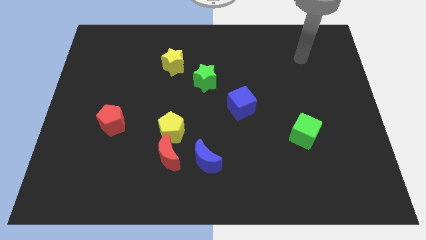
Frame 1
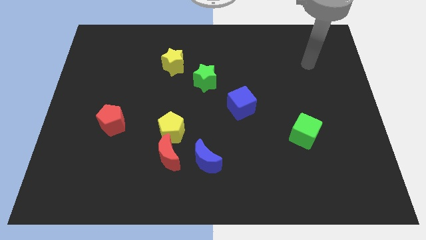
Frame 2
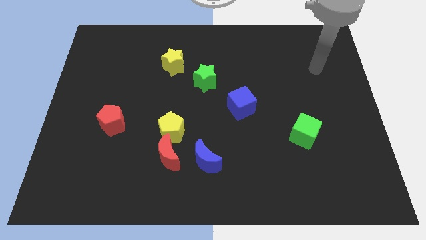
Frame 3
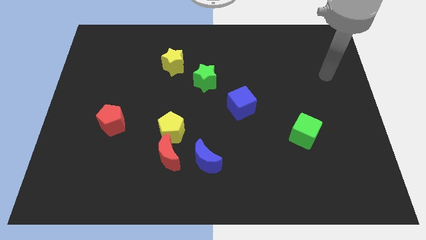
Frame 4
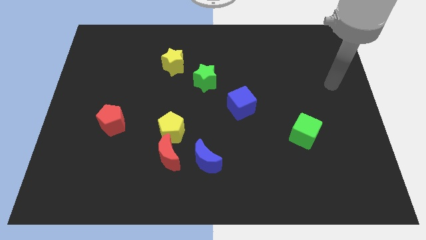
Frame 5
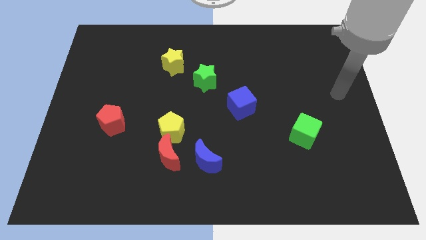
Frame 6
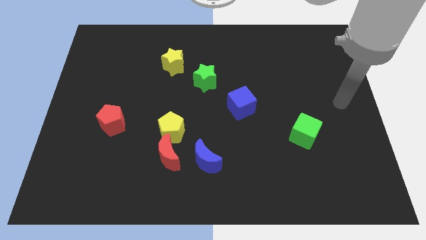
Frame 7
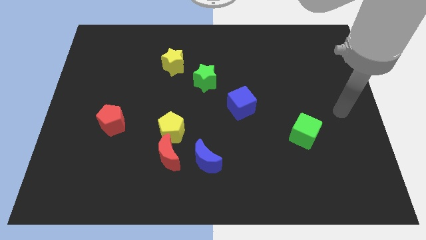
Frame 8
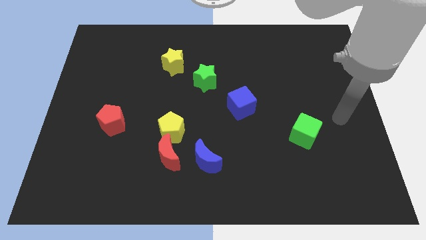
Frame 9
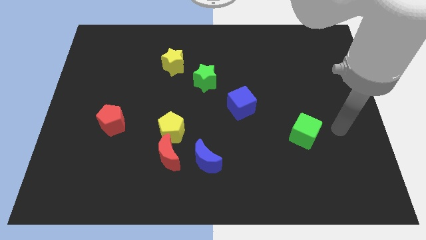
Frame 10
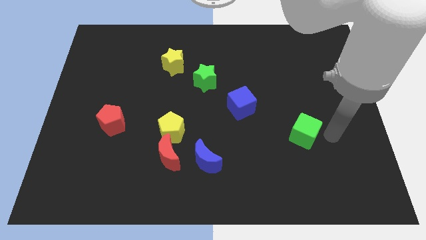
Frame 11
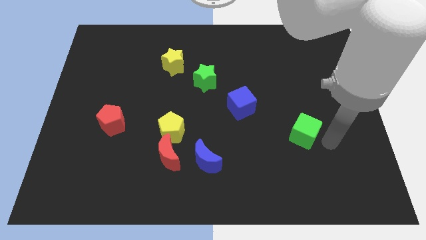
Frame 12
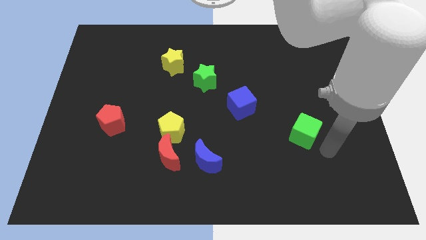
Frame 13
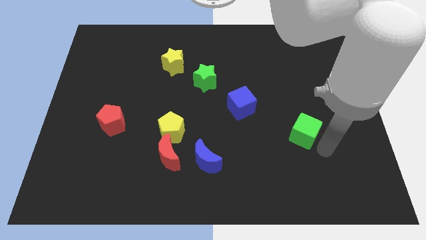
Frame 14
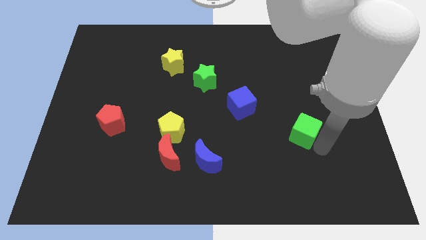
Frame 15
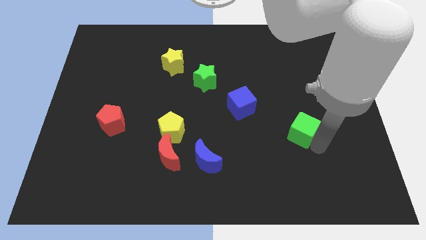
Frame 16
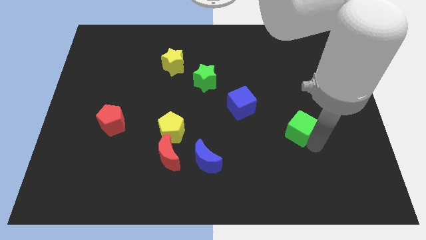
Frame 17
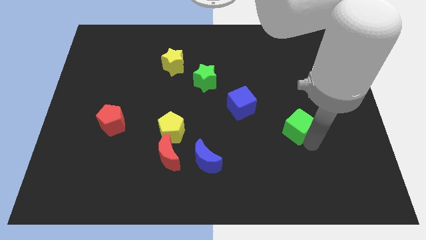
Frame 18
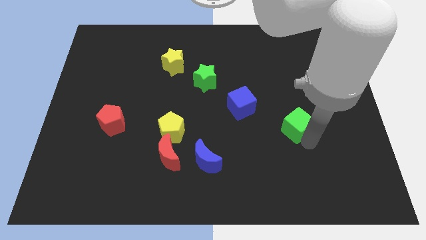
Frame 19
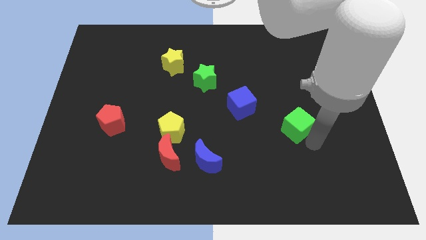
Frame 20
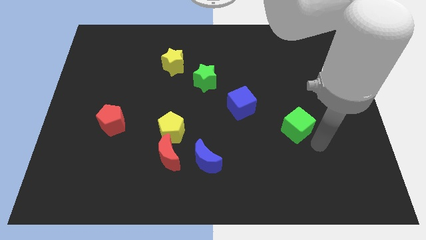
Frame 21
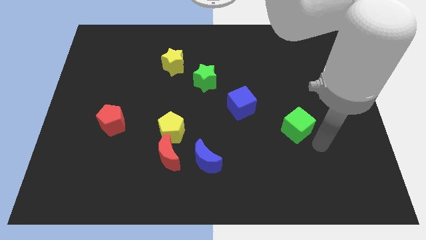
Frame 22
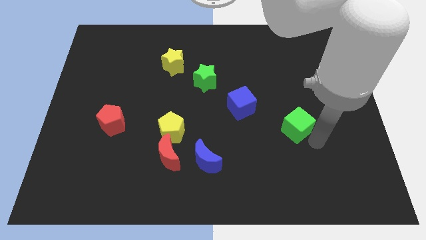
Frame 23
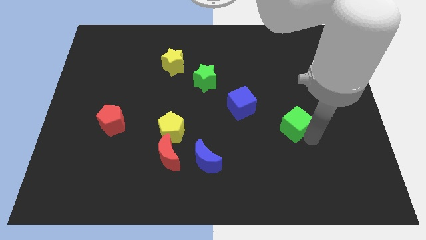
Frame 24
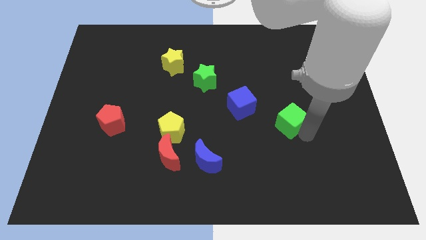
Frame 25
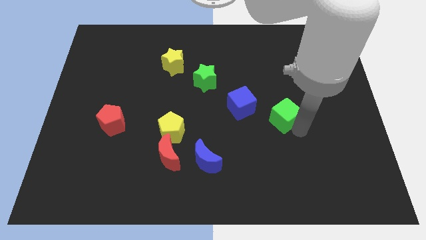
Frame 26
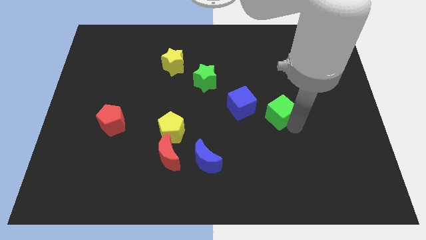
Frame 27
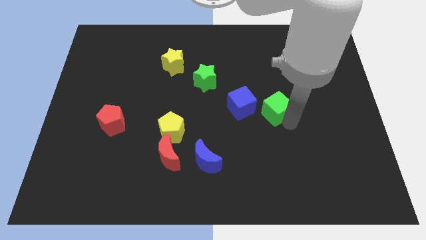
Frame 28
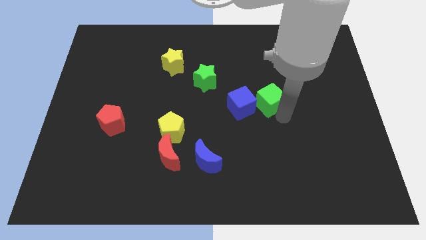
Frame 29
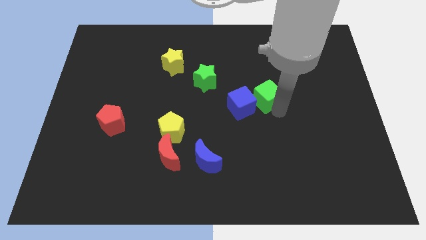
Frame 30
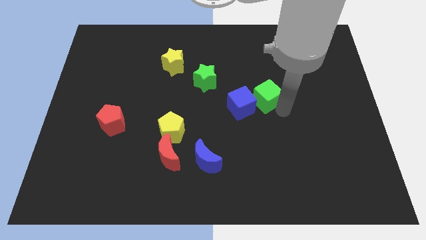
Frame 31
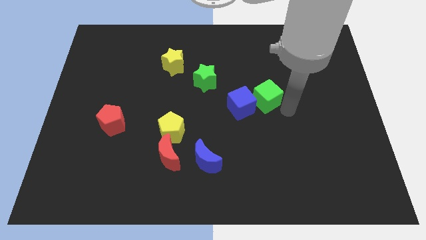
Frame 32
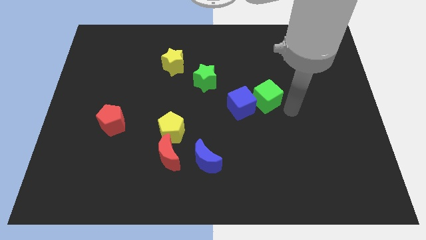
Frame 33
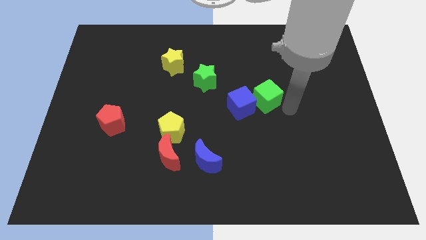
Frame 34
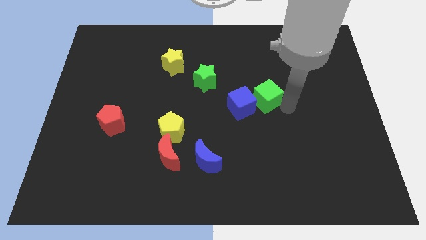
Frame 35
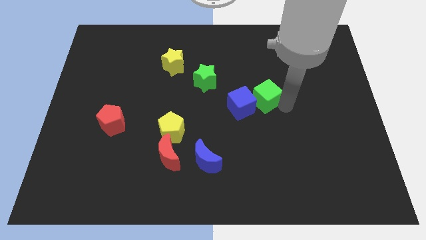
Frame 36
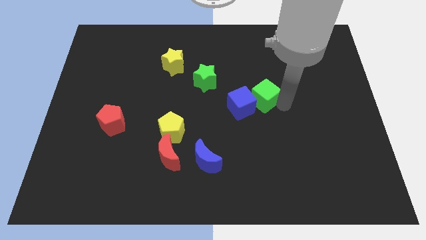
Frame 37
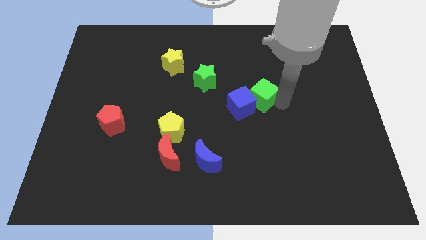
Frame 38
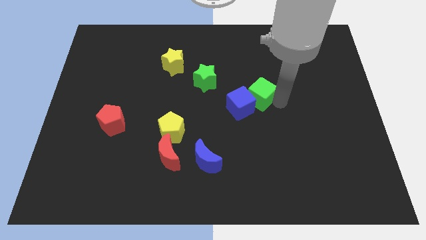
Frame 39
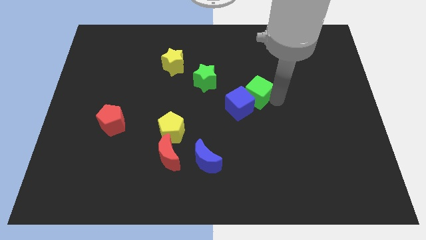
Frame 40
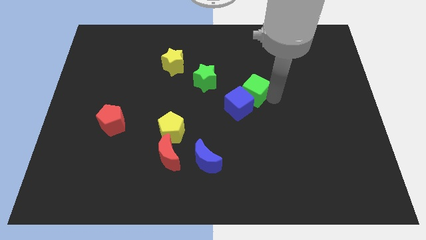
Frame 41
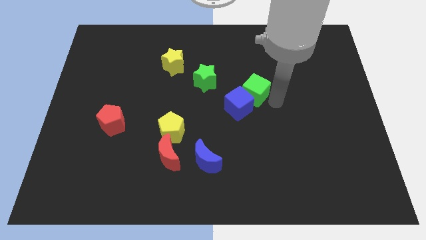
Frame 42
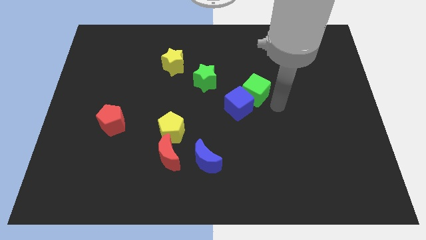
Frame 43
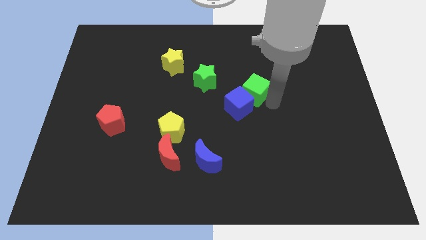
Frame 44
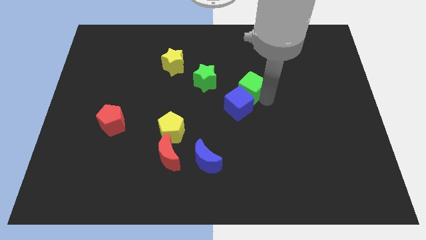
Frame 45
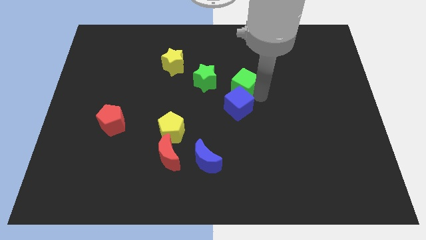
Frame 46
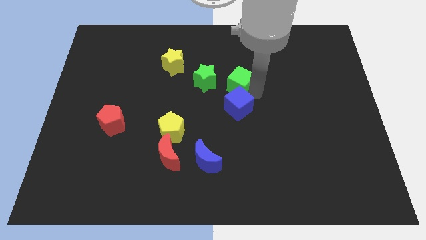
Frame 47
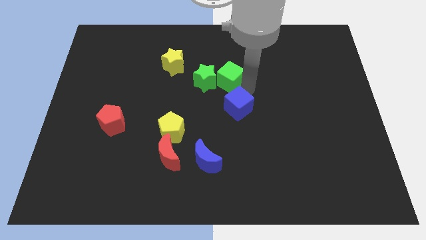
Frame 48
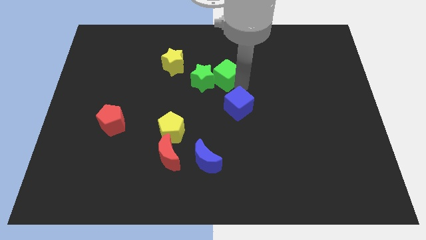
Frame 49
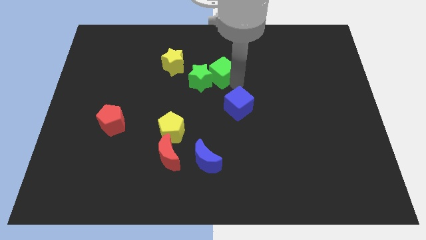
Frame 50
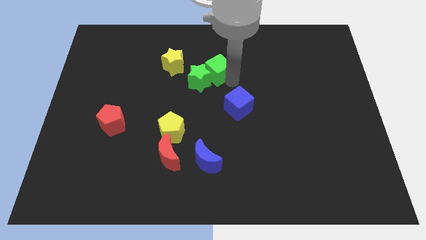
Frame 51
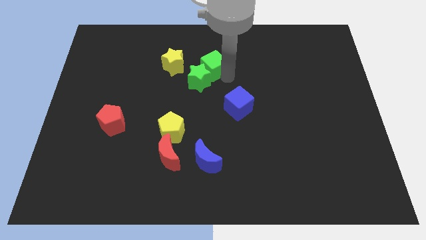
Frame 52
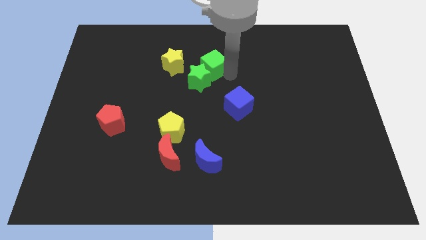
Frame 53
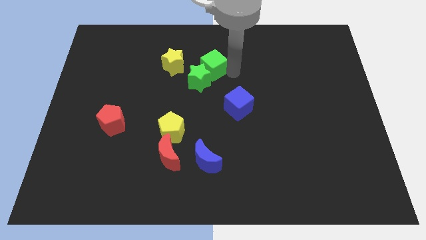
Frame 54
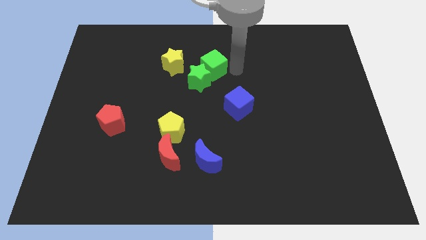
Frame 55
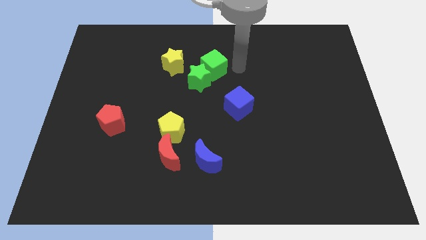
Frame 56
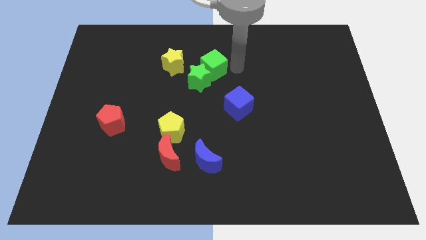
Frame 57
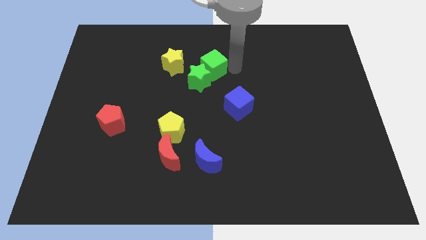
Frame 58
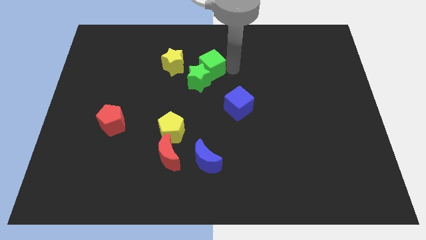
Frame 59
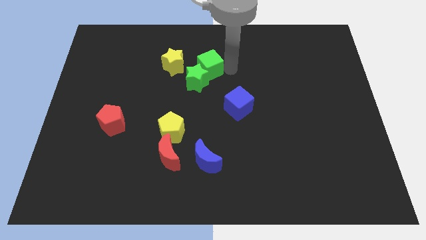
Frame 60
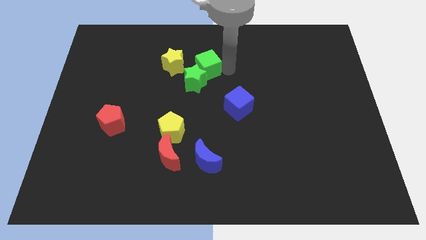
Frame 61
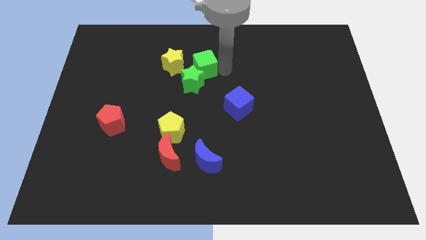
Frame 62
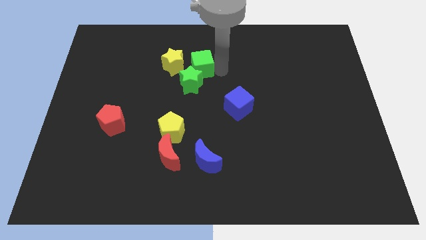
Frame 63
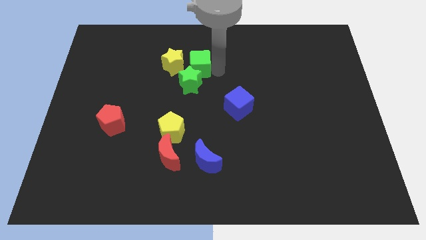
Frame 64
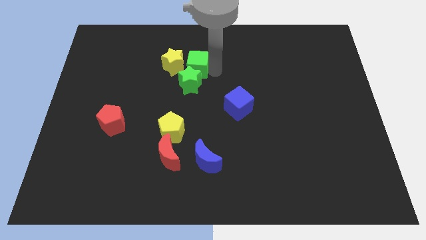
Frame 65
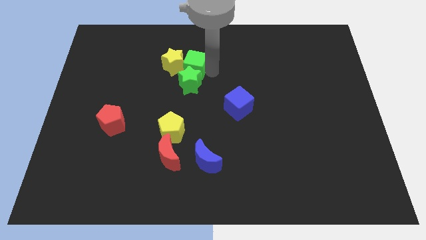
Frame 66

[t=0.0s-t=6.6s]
slide the green cube towards the yellow star

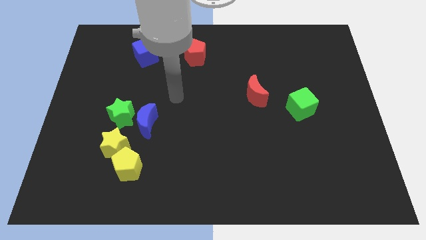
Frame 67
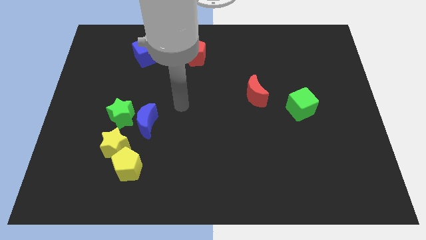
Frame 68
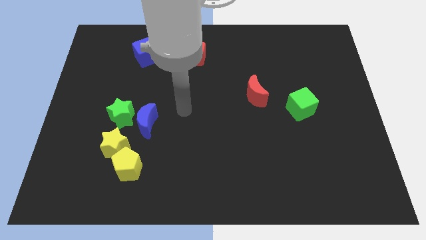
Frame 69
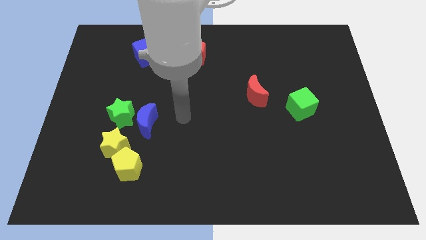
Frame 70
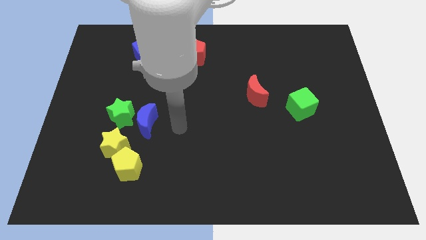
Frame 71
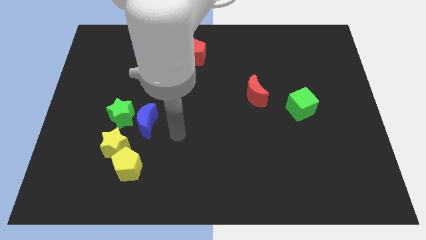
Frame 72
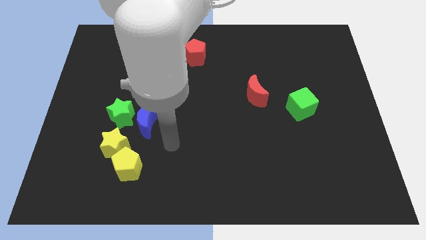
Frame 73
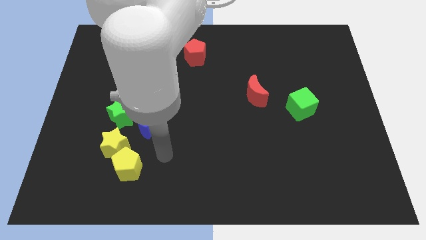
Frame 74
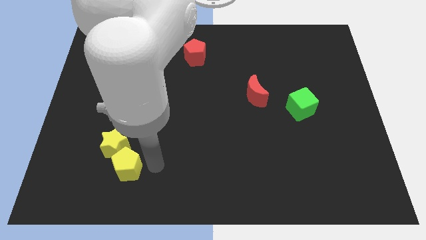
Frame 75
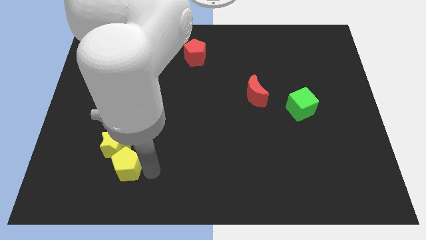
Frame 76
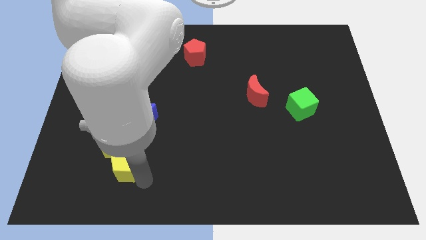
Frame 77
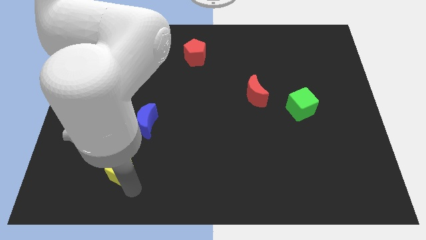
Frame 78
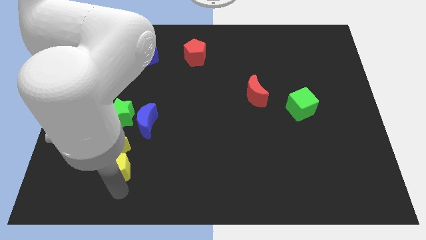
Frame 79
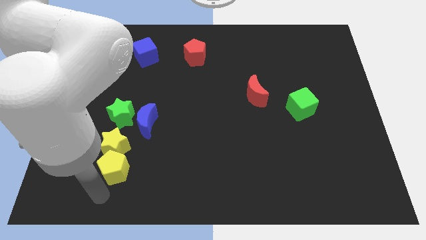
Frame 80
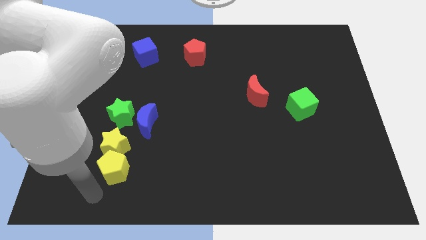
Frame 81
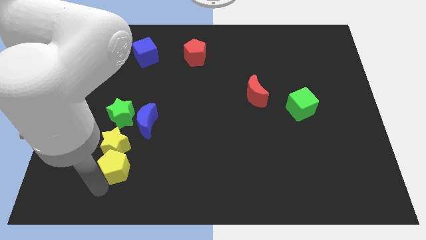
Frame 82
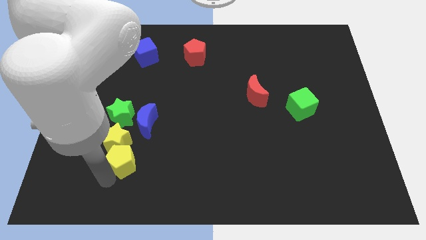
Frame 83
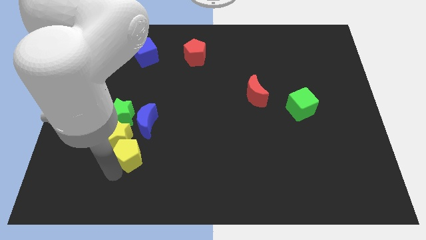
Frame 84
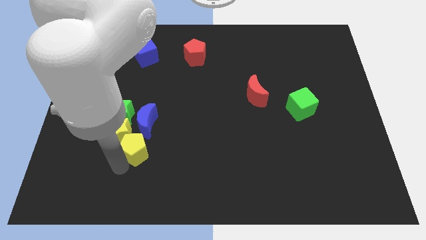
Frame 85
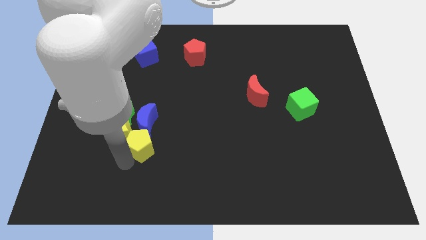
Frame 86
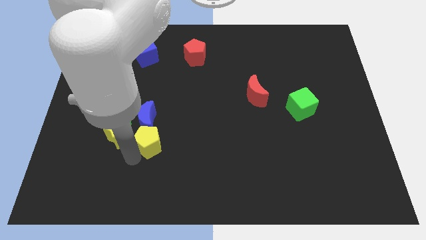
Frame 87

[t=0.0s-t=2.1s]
move the yellow pentagon close to the blue moon
